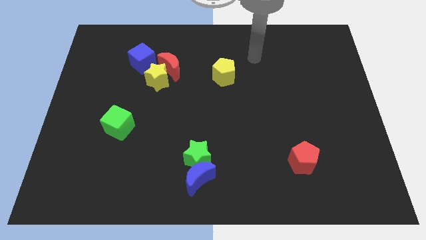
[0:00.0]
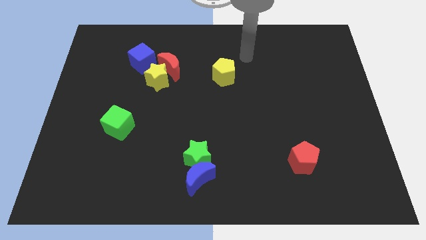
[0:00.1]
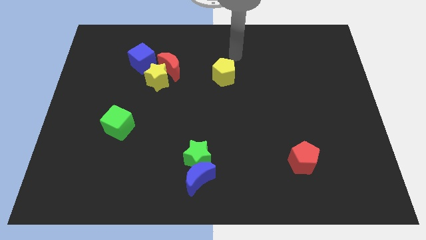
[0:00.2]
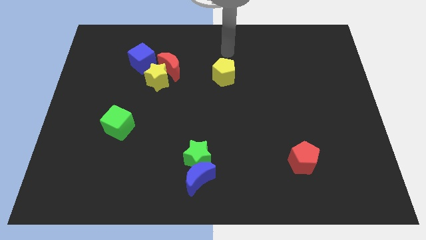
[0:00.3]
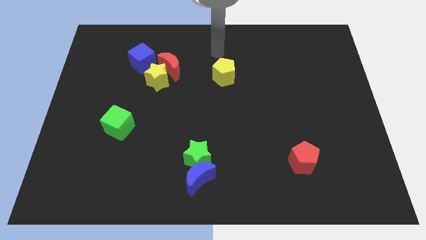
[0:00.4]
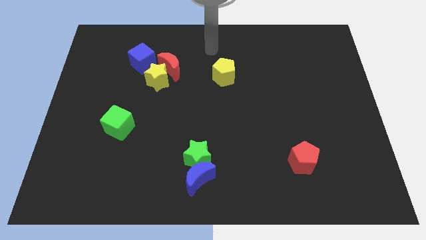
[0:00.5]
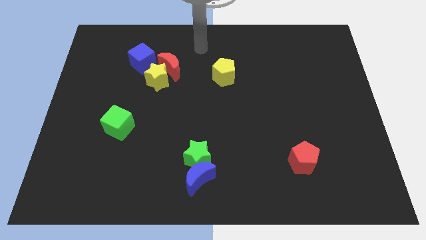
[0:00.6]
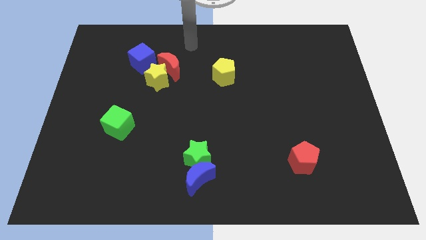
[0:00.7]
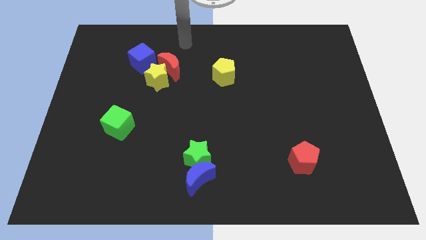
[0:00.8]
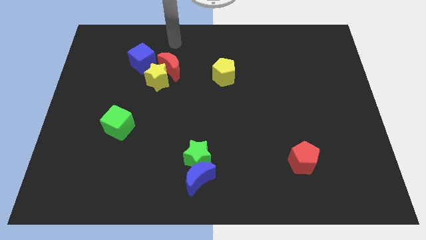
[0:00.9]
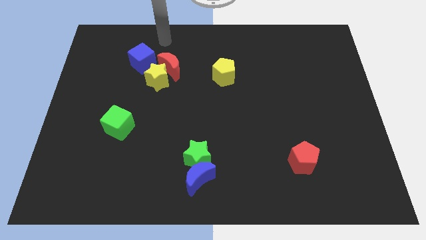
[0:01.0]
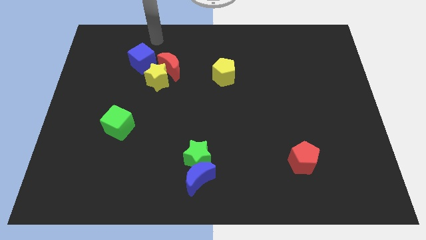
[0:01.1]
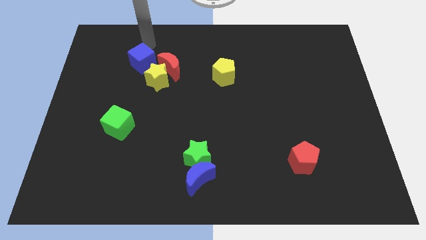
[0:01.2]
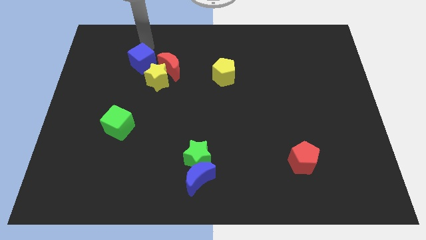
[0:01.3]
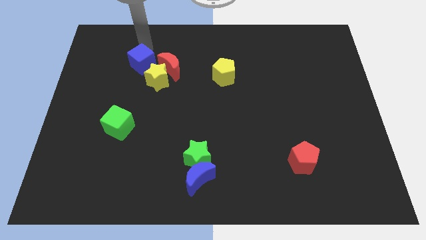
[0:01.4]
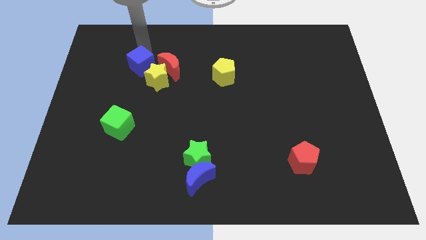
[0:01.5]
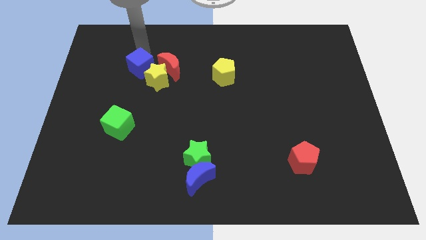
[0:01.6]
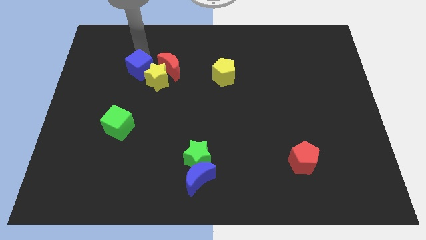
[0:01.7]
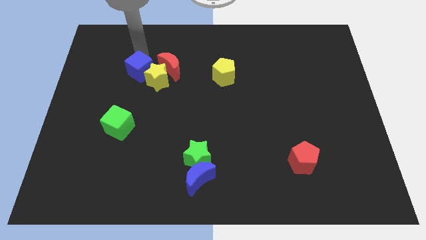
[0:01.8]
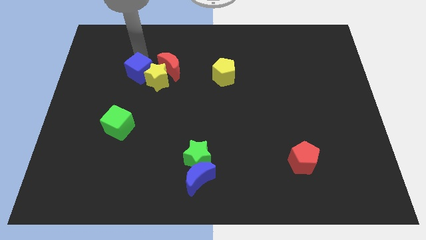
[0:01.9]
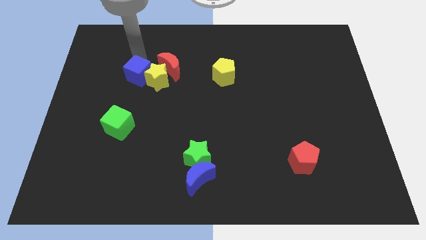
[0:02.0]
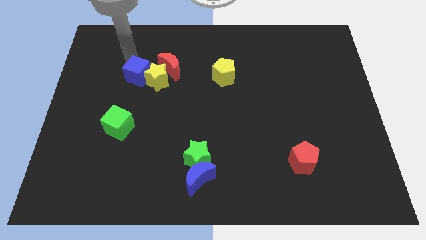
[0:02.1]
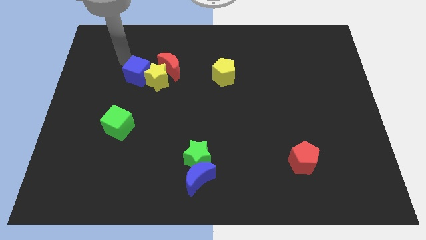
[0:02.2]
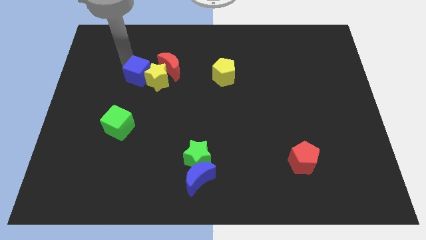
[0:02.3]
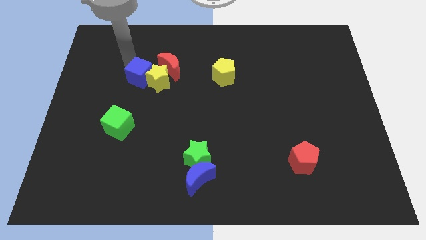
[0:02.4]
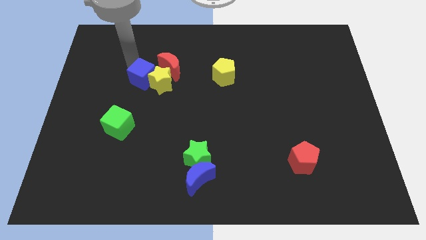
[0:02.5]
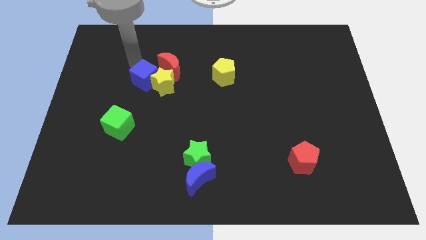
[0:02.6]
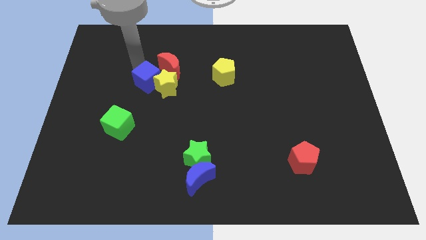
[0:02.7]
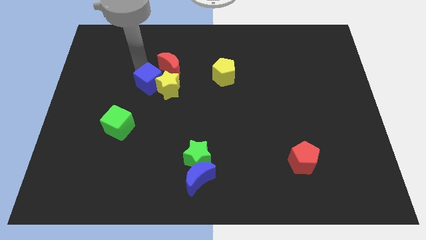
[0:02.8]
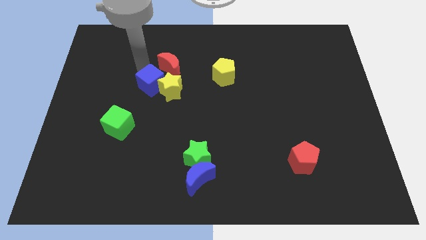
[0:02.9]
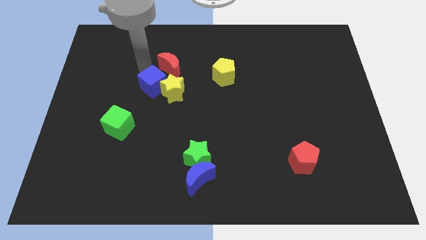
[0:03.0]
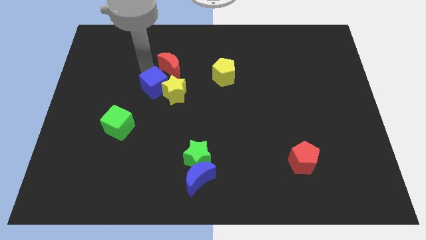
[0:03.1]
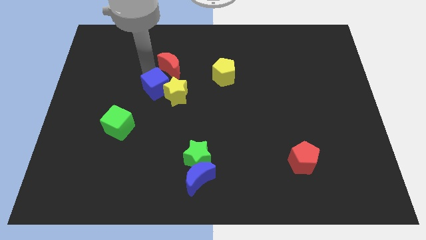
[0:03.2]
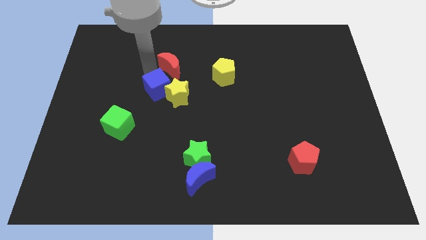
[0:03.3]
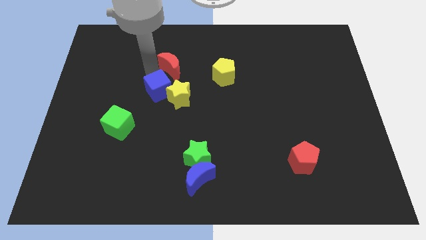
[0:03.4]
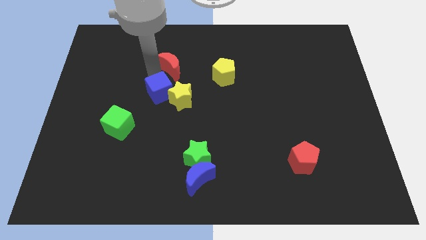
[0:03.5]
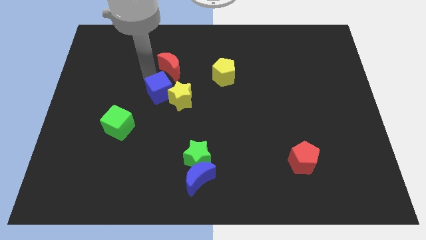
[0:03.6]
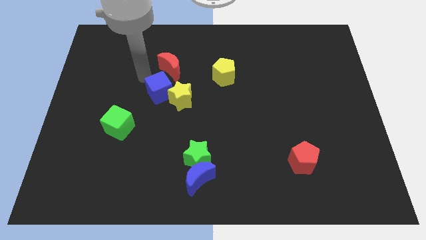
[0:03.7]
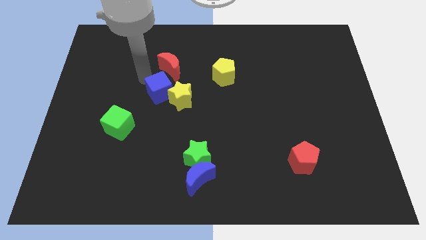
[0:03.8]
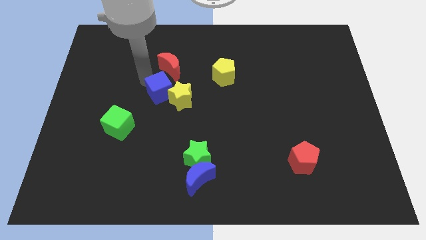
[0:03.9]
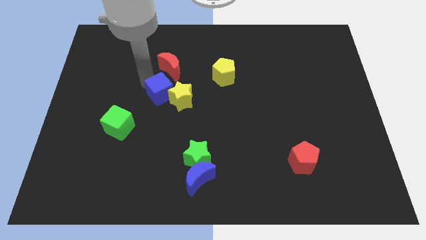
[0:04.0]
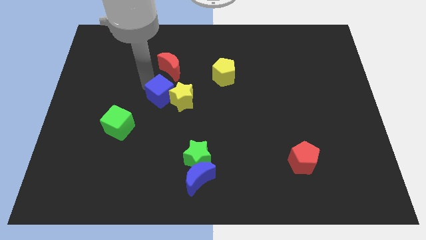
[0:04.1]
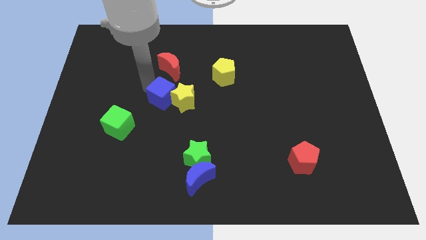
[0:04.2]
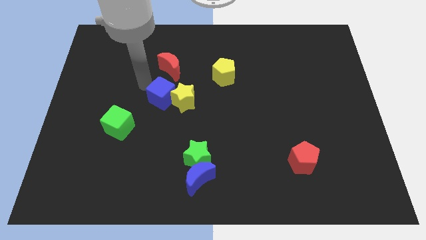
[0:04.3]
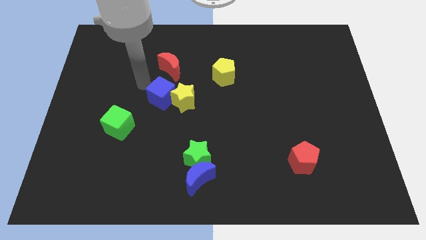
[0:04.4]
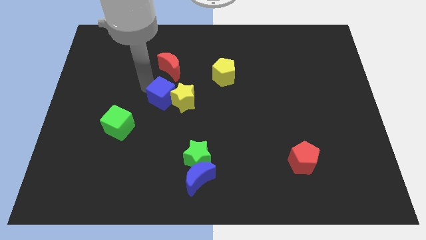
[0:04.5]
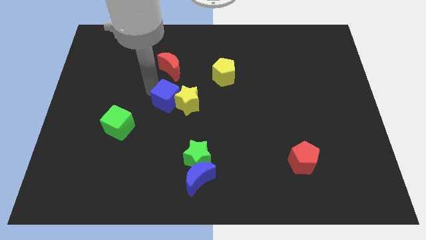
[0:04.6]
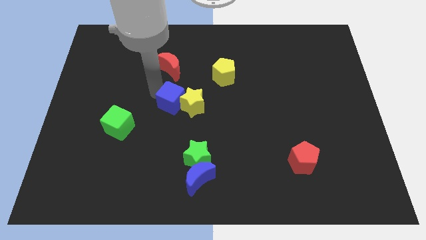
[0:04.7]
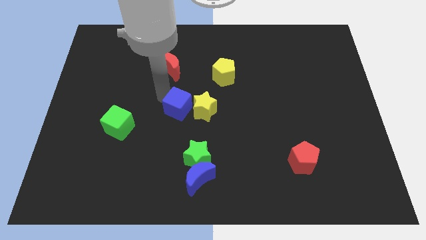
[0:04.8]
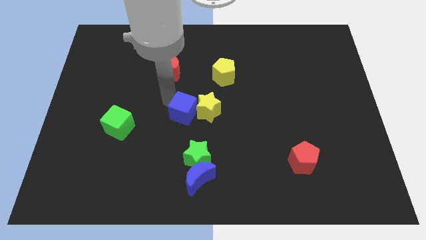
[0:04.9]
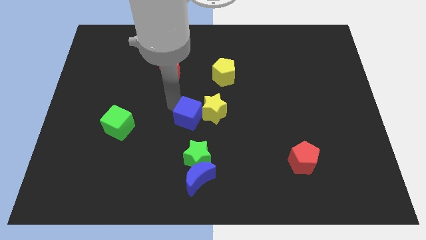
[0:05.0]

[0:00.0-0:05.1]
push the blue cube down and right diagonally

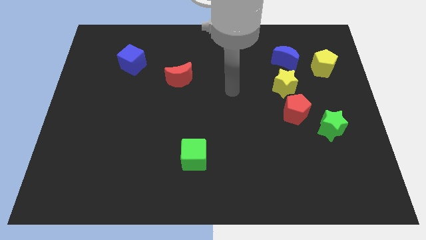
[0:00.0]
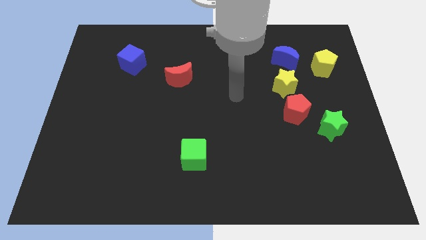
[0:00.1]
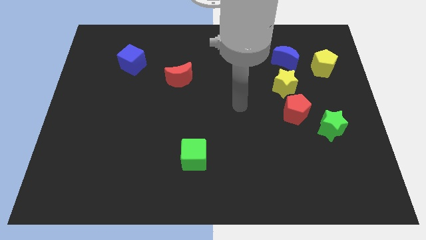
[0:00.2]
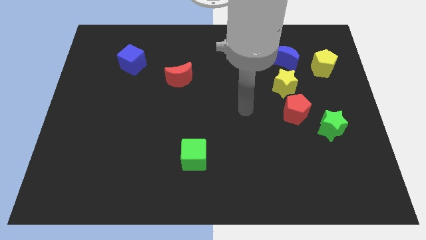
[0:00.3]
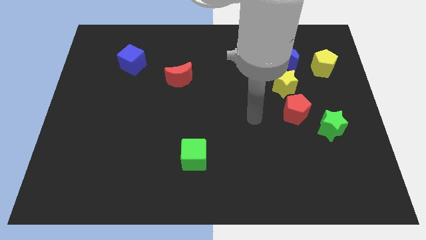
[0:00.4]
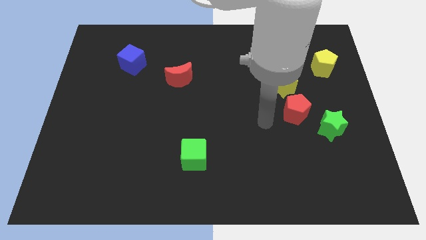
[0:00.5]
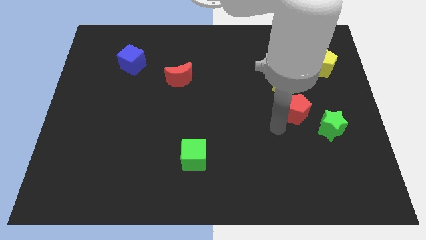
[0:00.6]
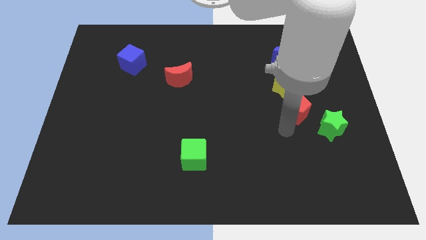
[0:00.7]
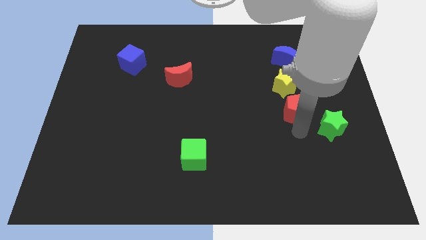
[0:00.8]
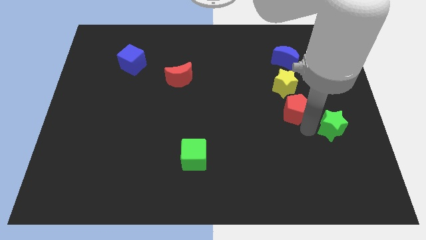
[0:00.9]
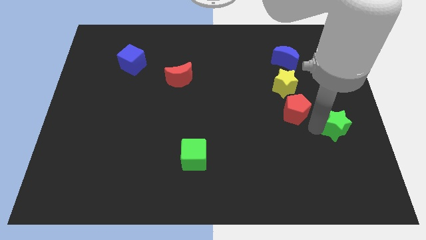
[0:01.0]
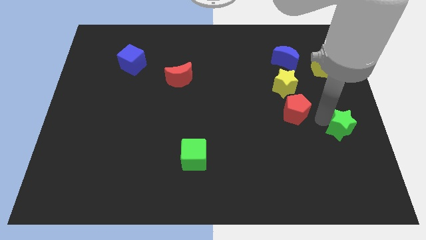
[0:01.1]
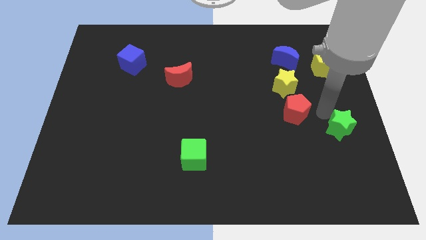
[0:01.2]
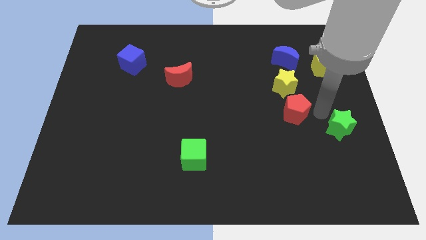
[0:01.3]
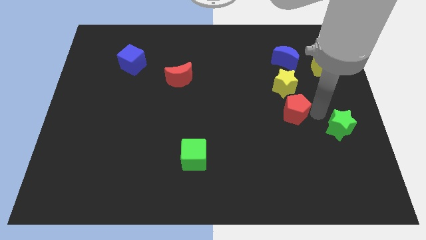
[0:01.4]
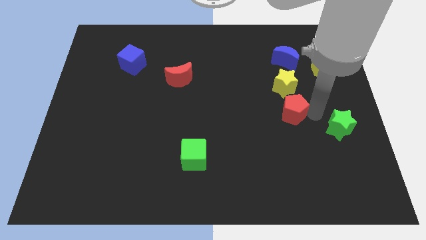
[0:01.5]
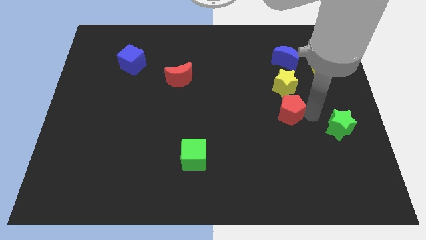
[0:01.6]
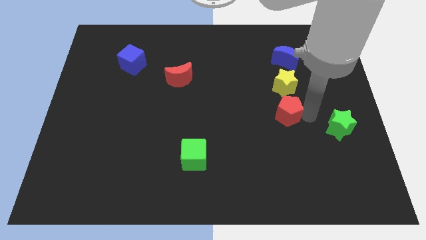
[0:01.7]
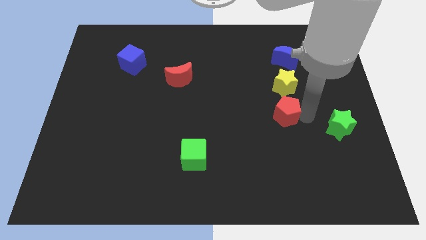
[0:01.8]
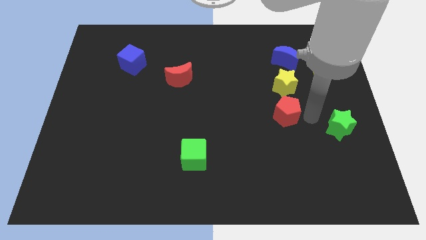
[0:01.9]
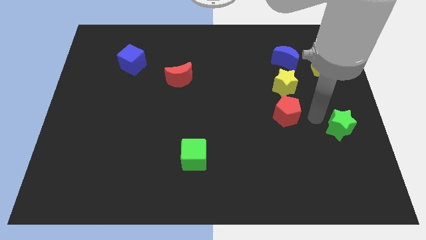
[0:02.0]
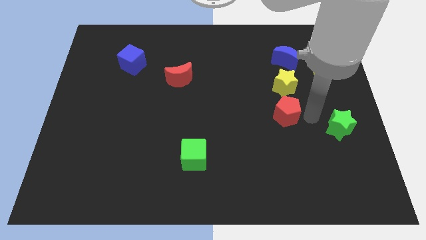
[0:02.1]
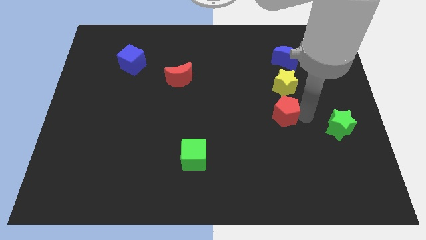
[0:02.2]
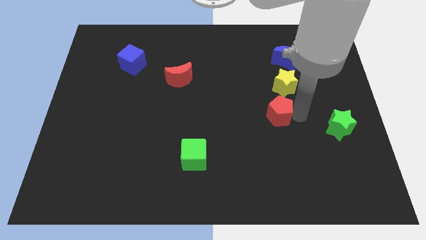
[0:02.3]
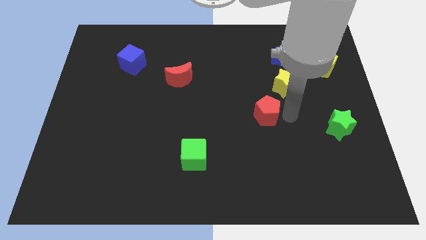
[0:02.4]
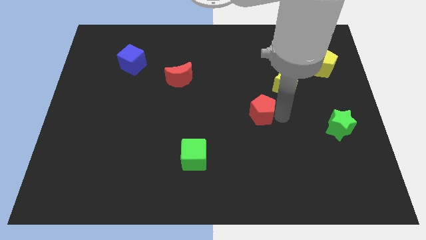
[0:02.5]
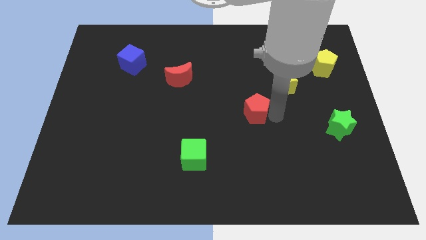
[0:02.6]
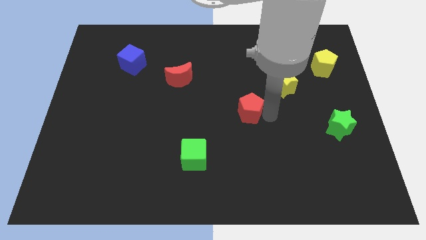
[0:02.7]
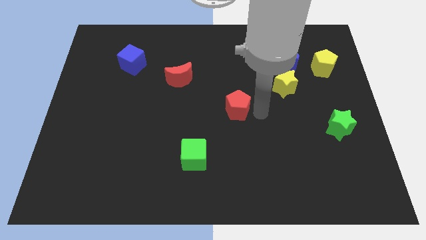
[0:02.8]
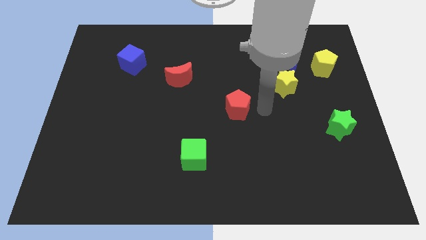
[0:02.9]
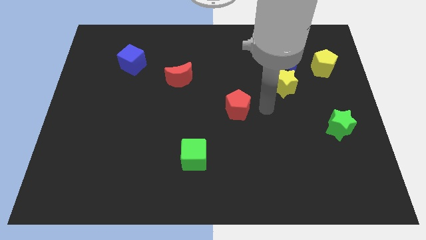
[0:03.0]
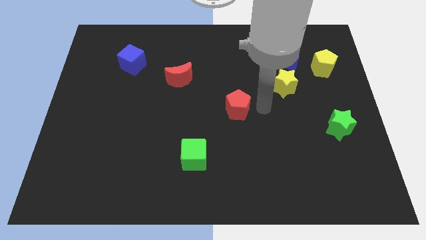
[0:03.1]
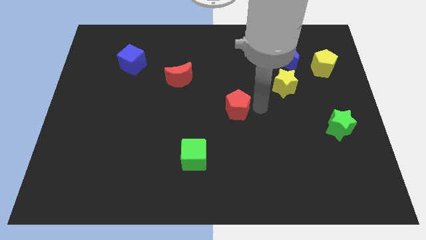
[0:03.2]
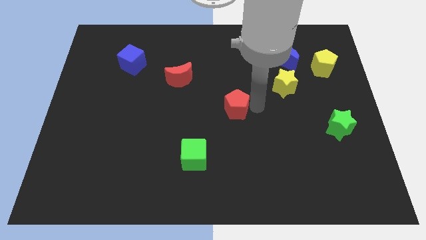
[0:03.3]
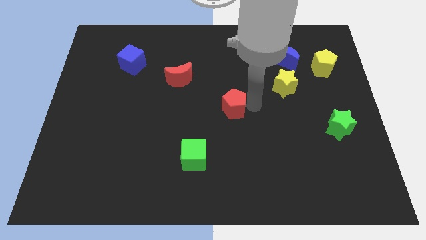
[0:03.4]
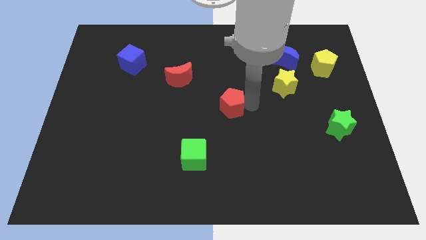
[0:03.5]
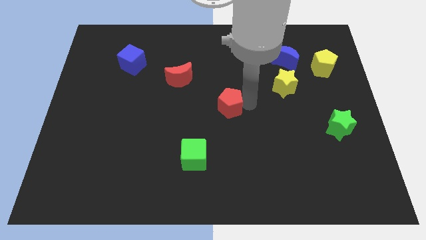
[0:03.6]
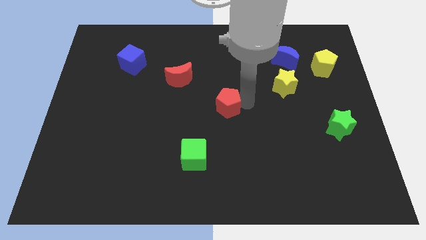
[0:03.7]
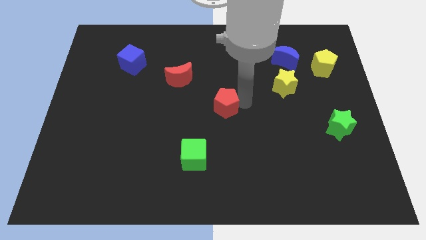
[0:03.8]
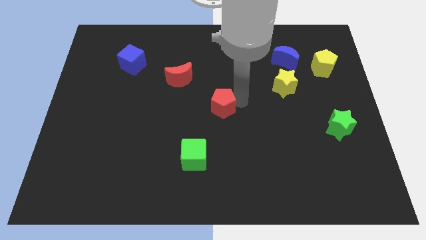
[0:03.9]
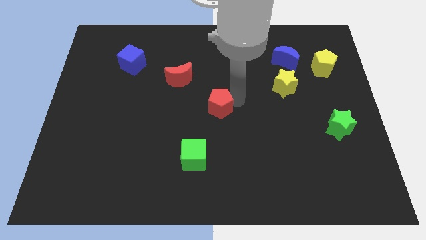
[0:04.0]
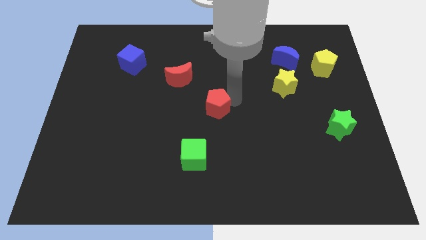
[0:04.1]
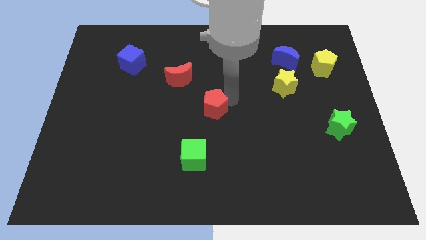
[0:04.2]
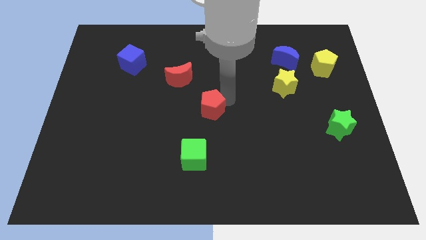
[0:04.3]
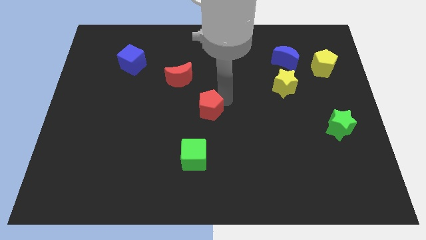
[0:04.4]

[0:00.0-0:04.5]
move the red pentagon to the left
